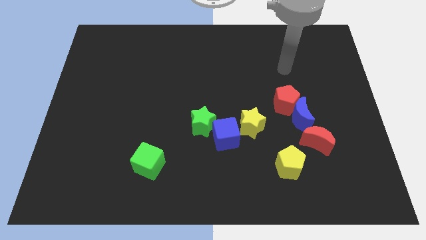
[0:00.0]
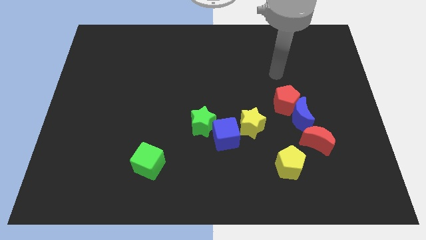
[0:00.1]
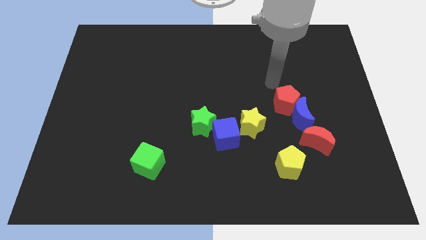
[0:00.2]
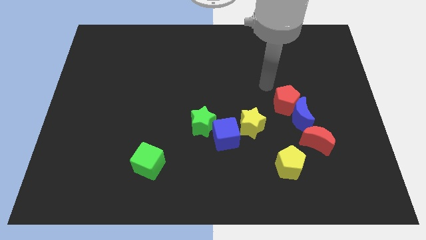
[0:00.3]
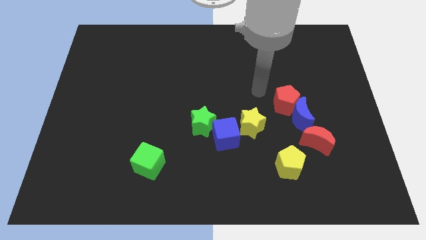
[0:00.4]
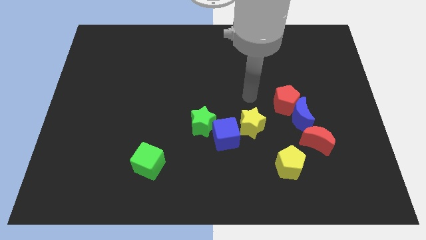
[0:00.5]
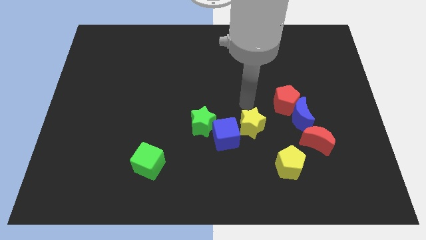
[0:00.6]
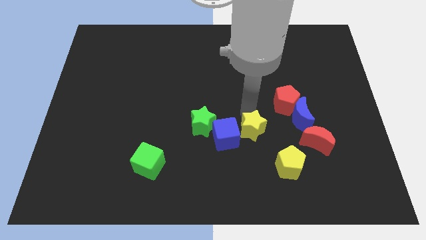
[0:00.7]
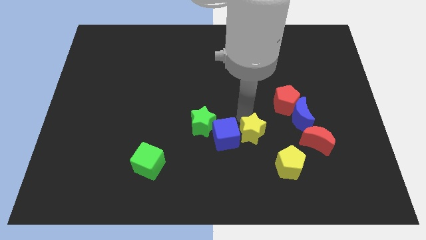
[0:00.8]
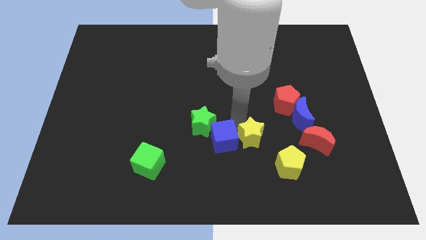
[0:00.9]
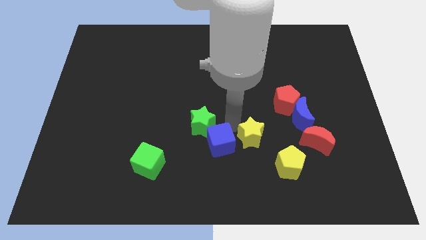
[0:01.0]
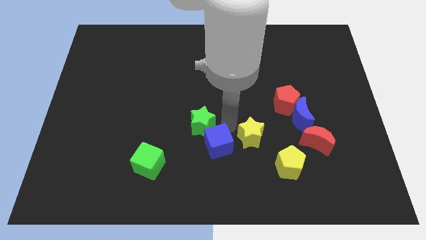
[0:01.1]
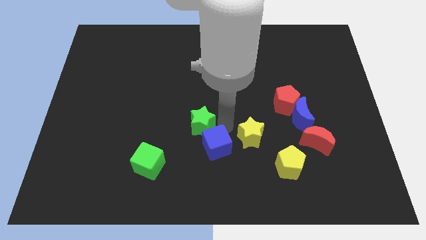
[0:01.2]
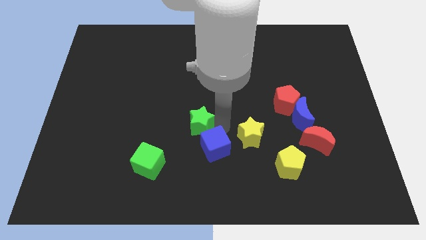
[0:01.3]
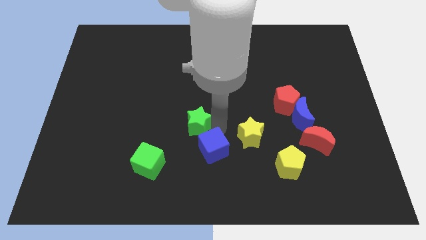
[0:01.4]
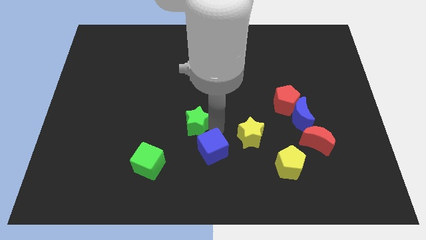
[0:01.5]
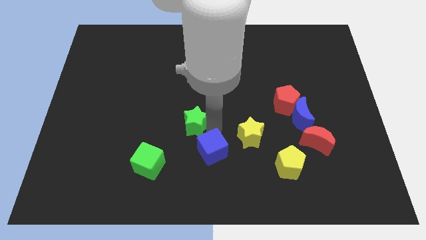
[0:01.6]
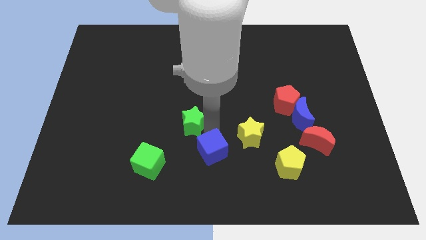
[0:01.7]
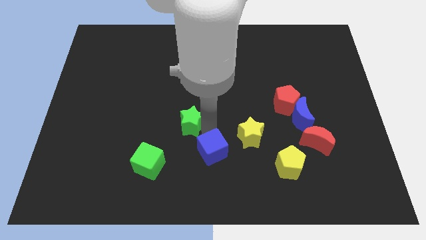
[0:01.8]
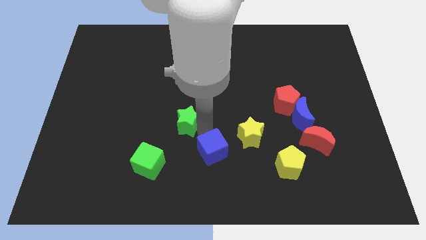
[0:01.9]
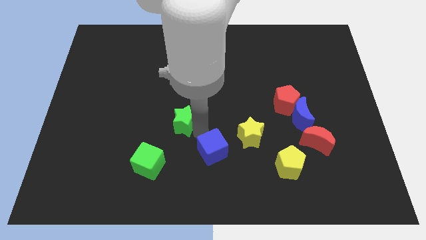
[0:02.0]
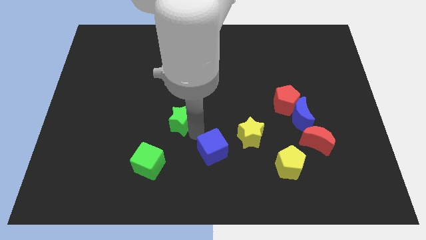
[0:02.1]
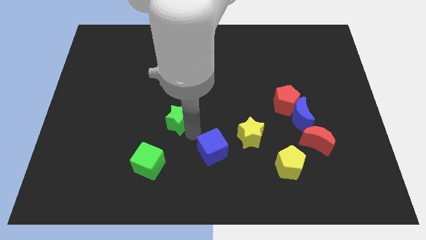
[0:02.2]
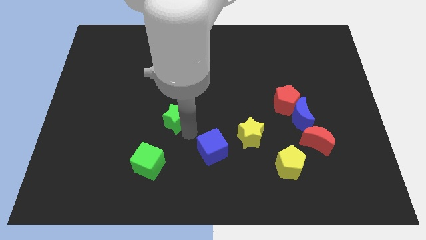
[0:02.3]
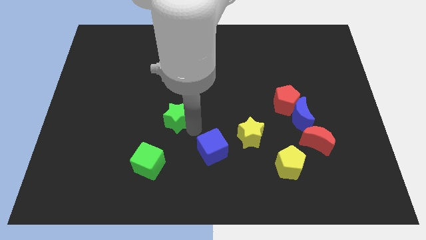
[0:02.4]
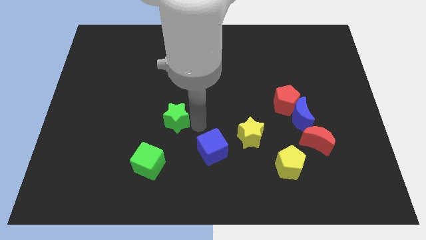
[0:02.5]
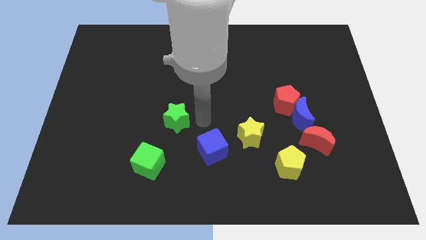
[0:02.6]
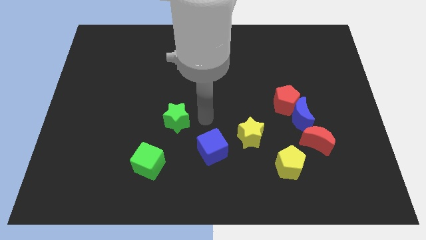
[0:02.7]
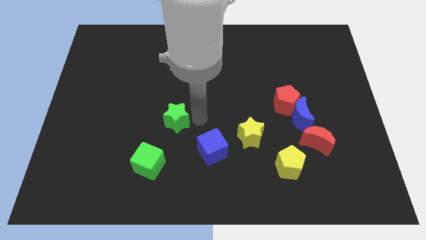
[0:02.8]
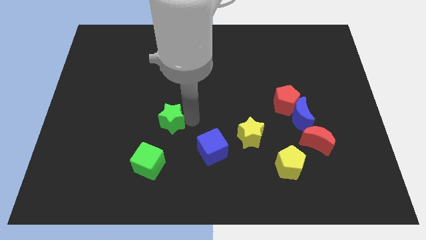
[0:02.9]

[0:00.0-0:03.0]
slightly move the green star left

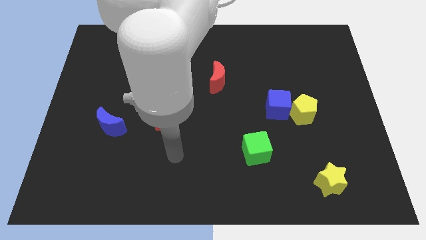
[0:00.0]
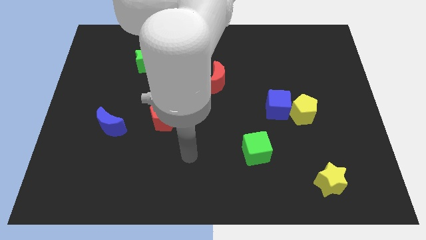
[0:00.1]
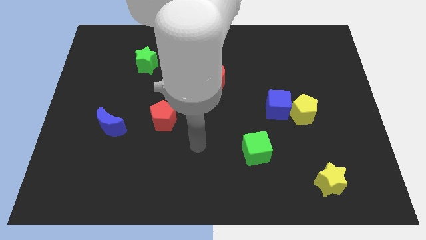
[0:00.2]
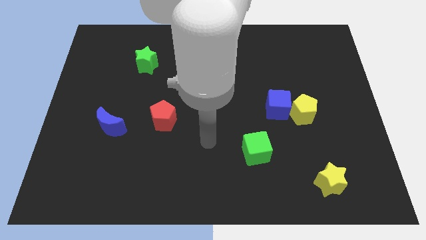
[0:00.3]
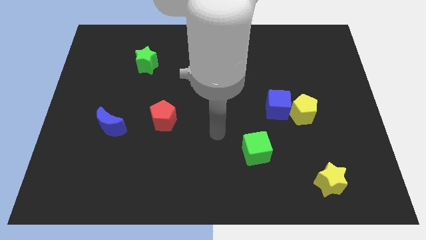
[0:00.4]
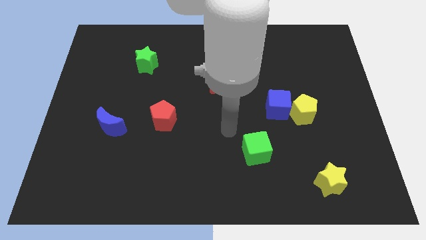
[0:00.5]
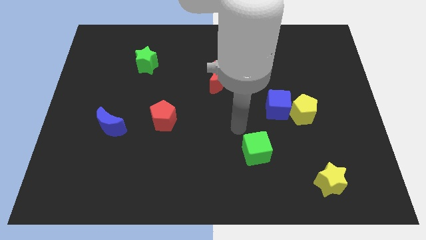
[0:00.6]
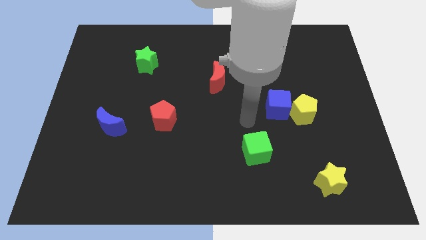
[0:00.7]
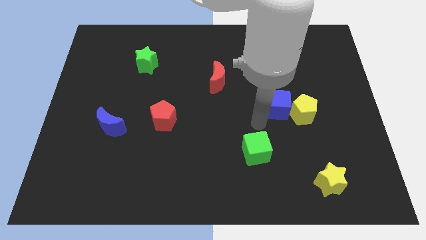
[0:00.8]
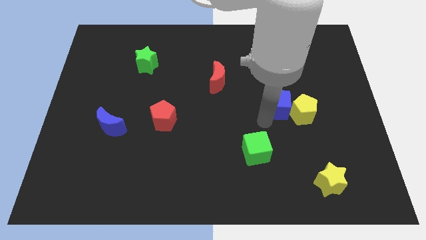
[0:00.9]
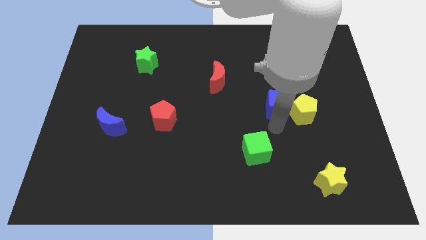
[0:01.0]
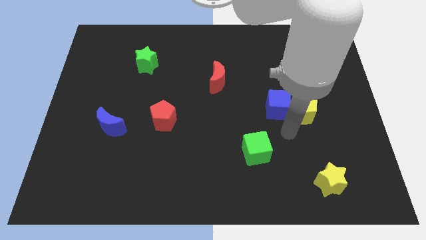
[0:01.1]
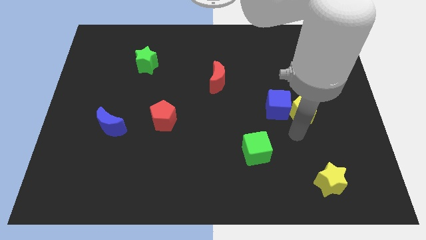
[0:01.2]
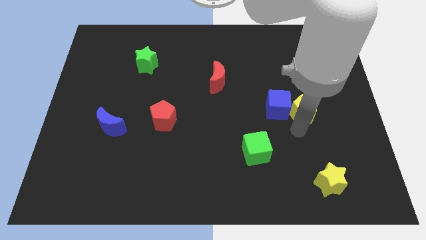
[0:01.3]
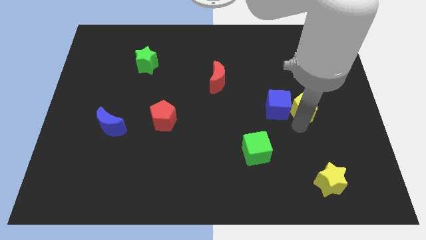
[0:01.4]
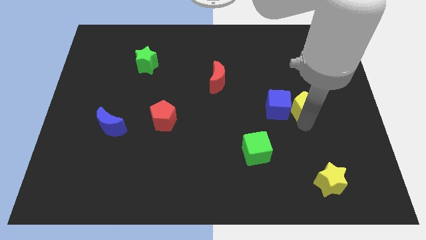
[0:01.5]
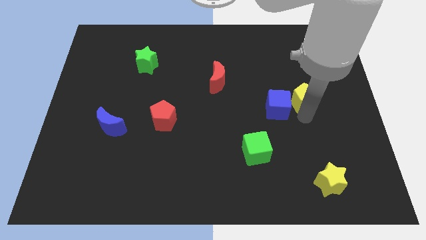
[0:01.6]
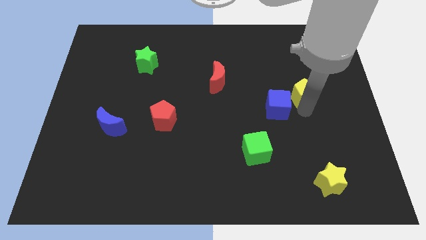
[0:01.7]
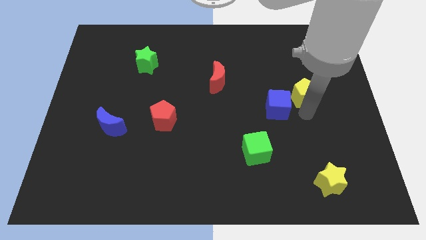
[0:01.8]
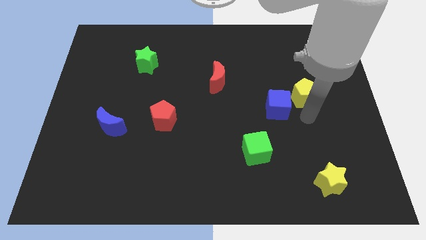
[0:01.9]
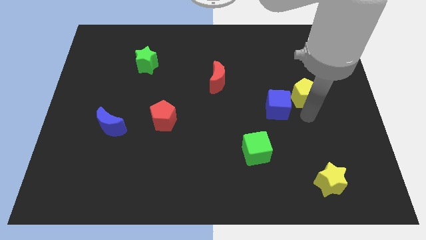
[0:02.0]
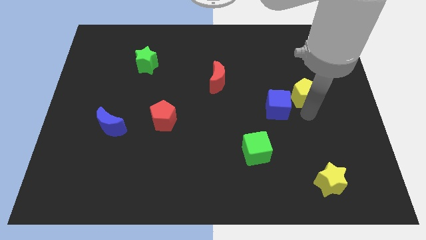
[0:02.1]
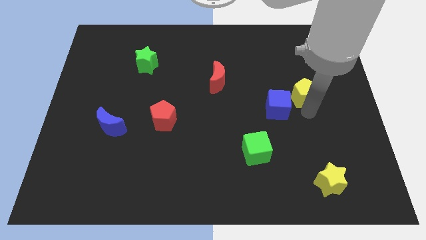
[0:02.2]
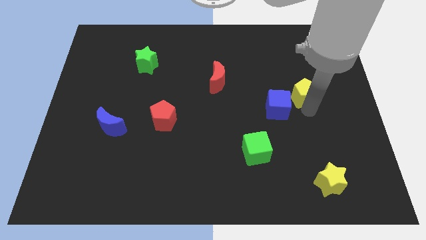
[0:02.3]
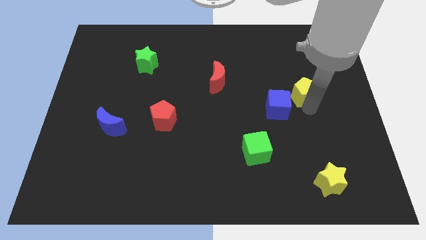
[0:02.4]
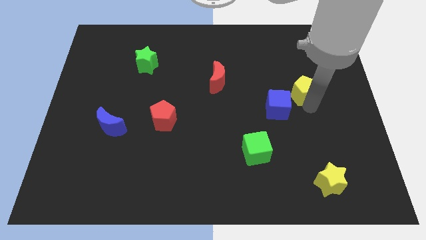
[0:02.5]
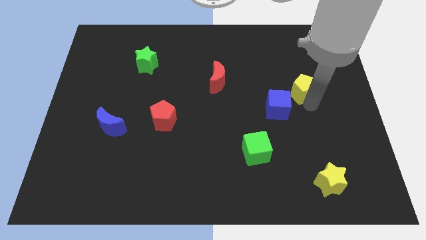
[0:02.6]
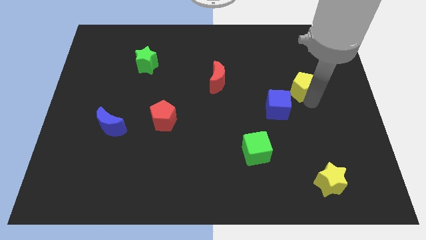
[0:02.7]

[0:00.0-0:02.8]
slide the yellow pentagon somewhat upwards

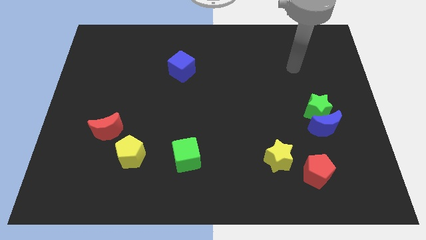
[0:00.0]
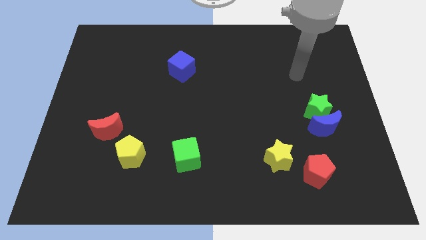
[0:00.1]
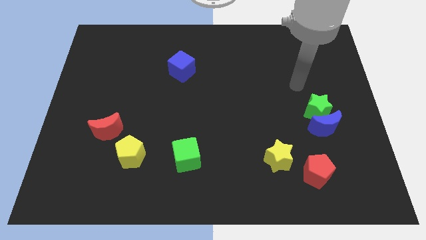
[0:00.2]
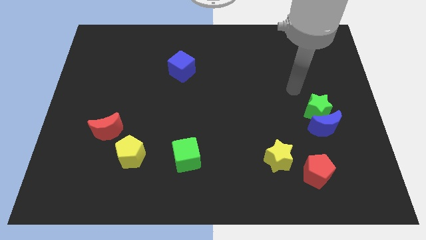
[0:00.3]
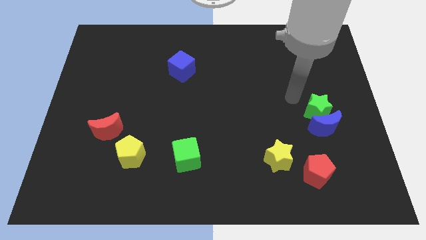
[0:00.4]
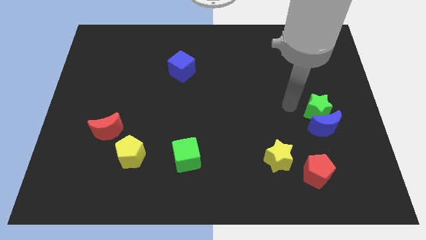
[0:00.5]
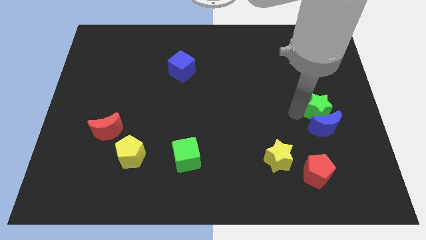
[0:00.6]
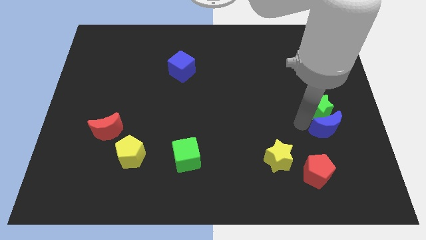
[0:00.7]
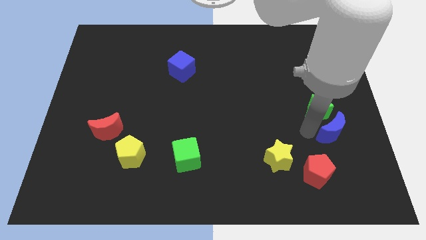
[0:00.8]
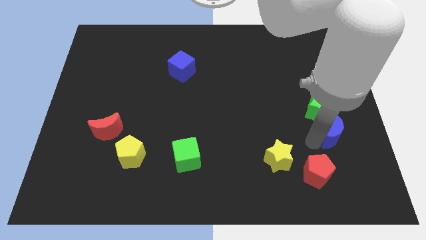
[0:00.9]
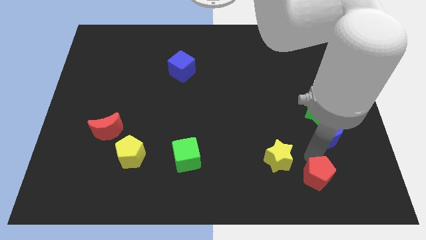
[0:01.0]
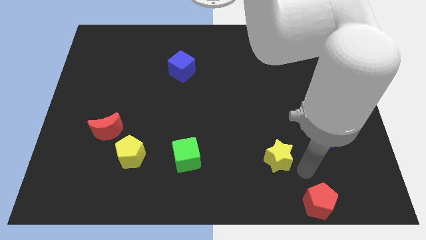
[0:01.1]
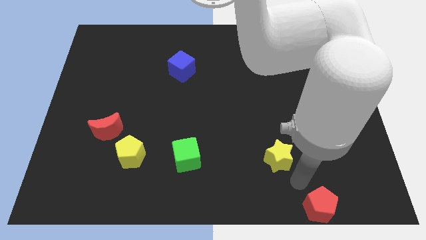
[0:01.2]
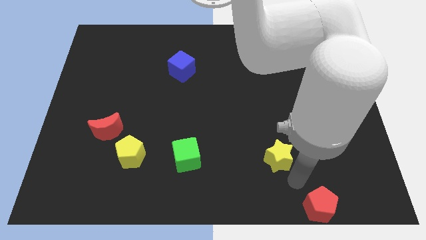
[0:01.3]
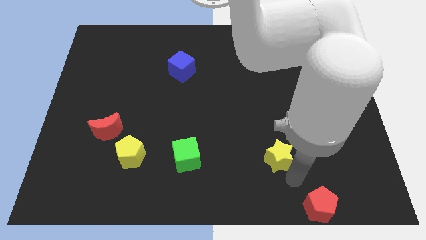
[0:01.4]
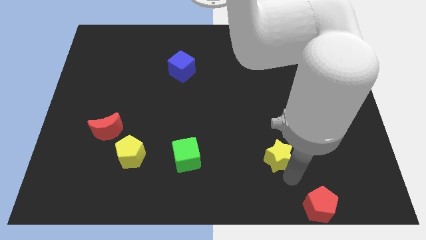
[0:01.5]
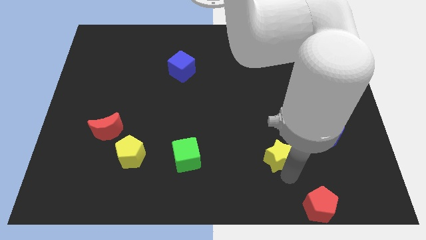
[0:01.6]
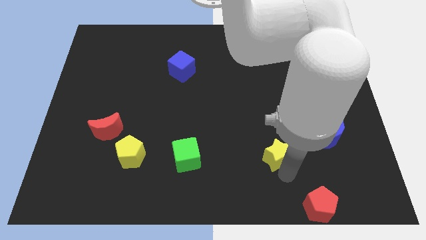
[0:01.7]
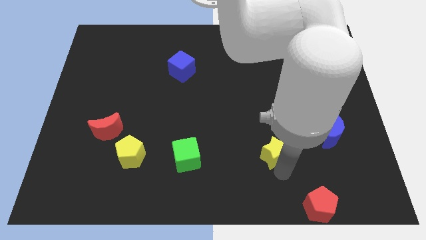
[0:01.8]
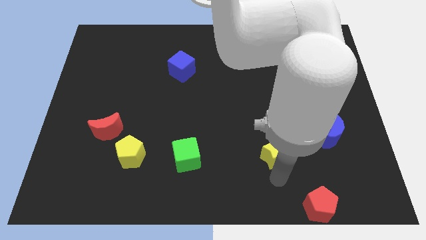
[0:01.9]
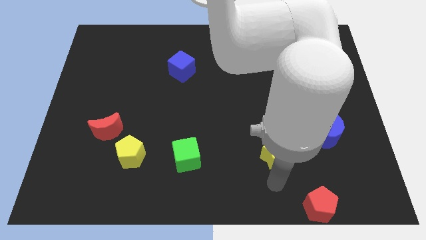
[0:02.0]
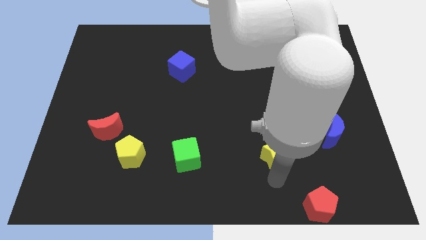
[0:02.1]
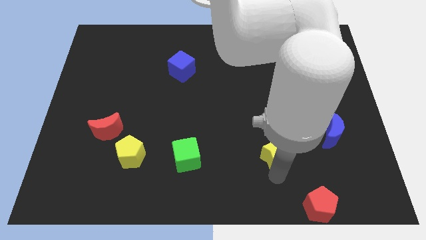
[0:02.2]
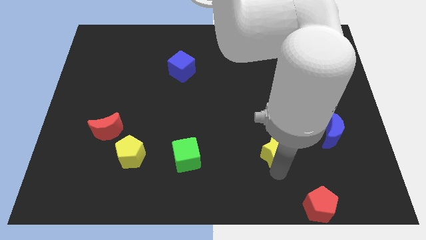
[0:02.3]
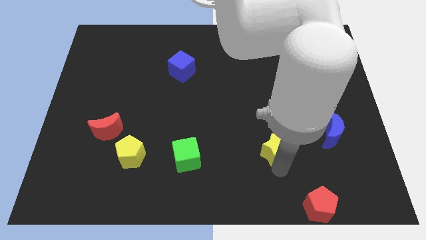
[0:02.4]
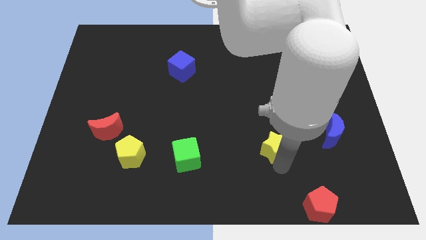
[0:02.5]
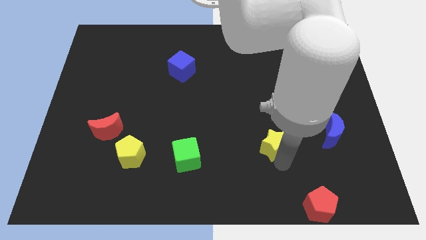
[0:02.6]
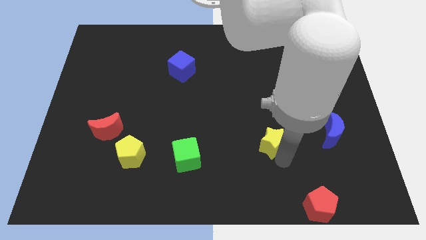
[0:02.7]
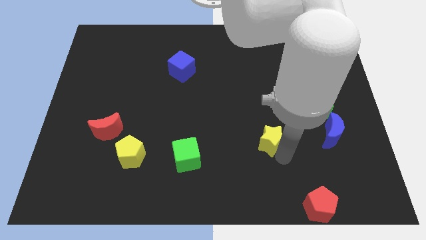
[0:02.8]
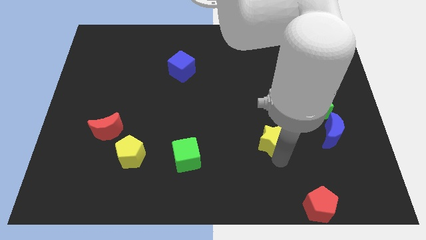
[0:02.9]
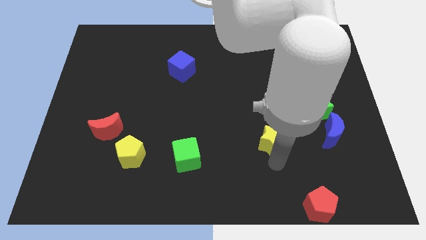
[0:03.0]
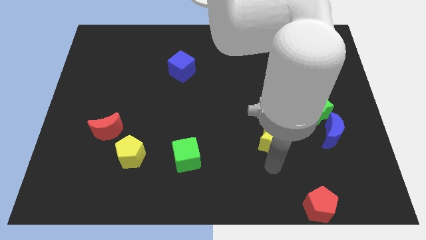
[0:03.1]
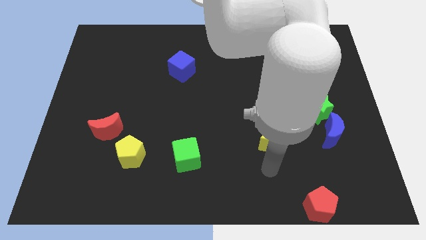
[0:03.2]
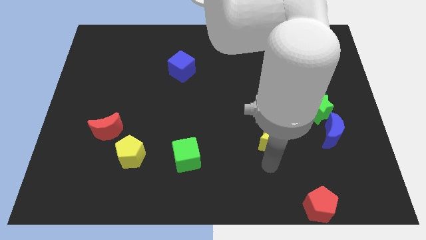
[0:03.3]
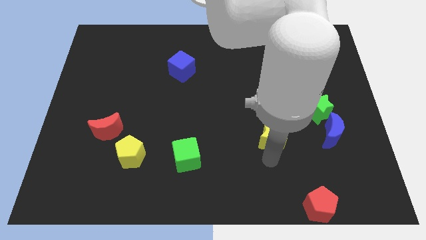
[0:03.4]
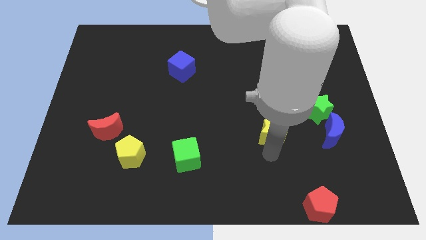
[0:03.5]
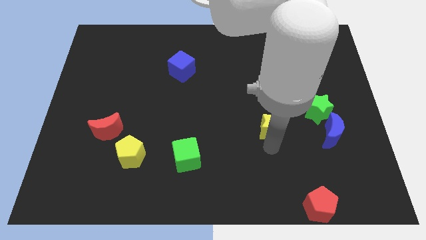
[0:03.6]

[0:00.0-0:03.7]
move the yellow star slightly upwards
